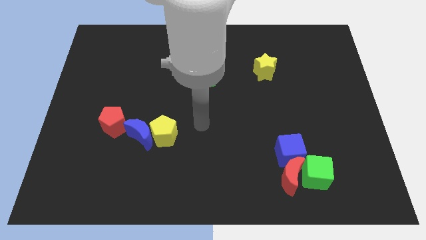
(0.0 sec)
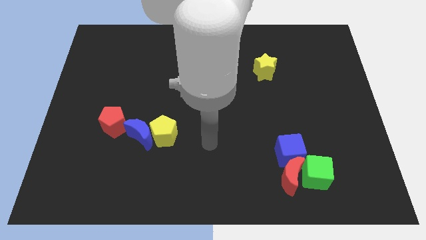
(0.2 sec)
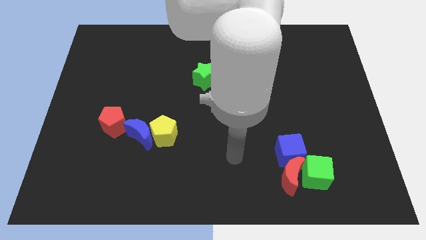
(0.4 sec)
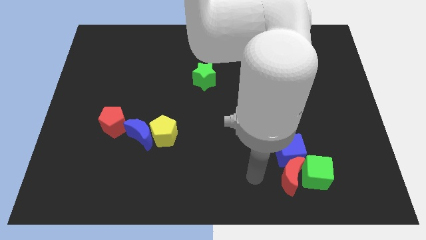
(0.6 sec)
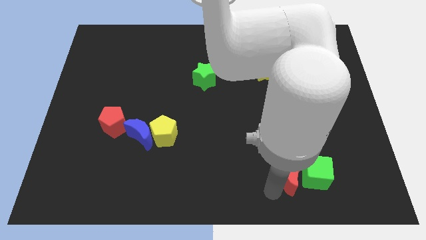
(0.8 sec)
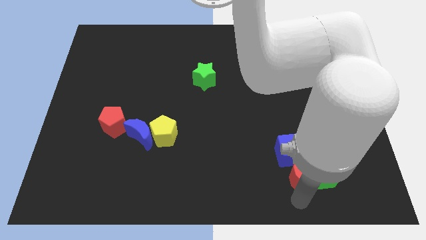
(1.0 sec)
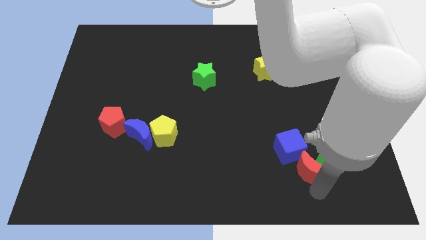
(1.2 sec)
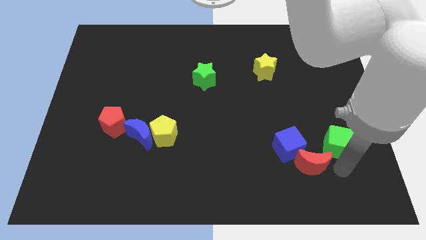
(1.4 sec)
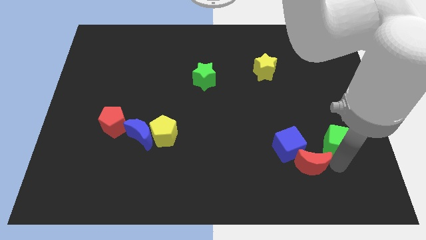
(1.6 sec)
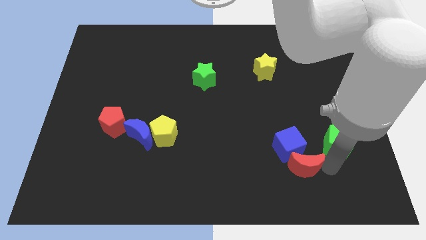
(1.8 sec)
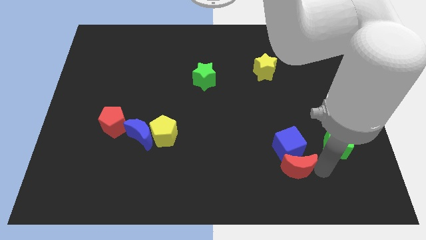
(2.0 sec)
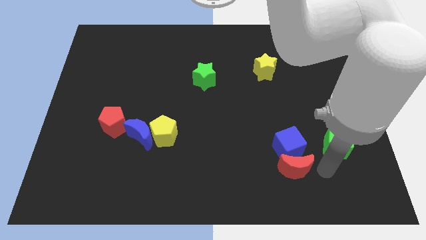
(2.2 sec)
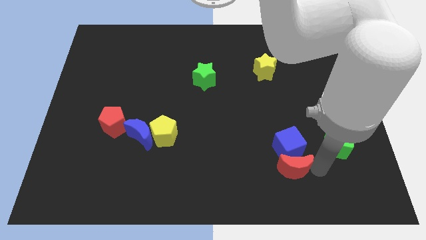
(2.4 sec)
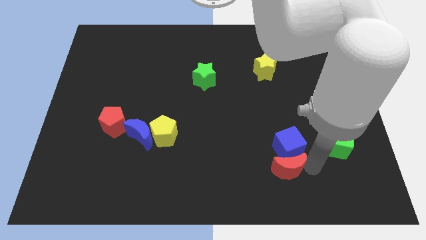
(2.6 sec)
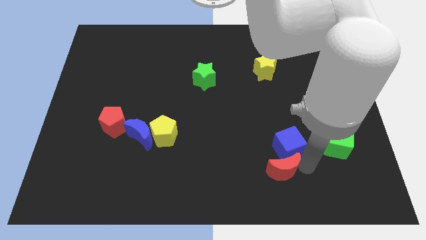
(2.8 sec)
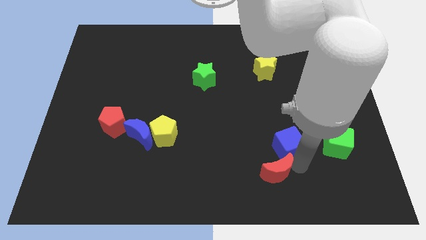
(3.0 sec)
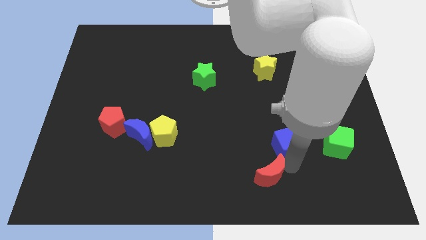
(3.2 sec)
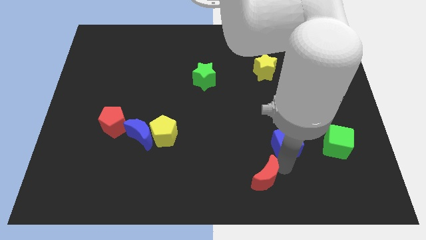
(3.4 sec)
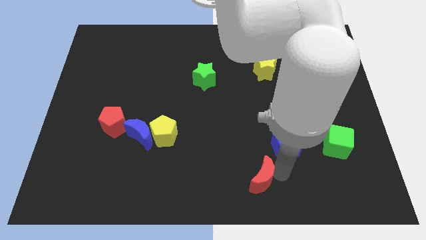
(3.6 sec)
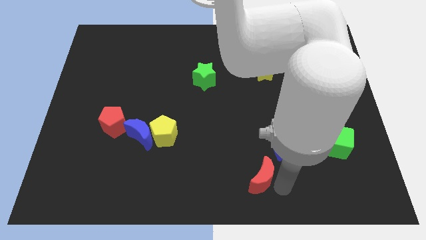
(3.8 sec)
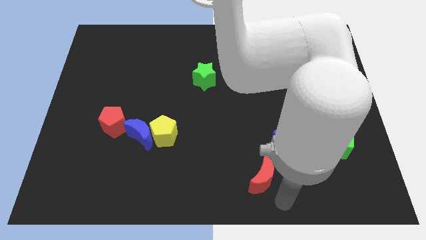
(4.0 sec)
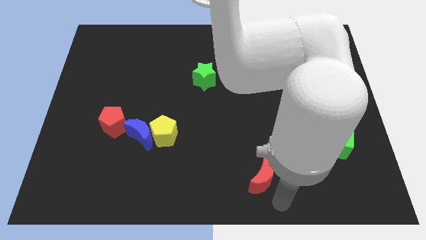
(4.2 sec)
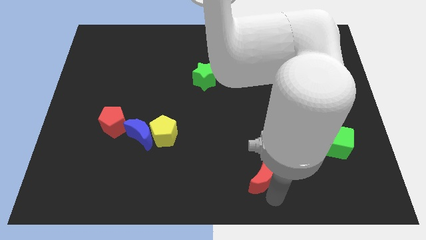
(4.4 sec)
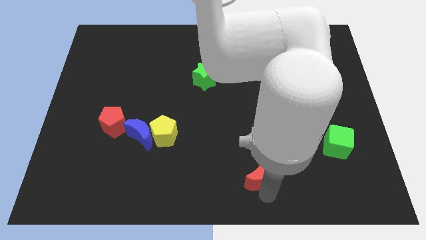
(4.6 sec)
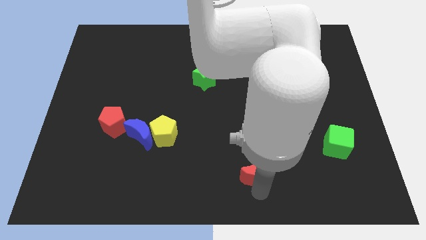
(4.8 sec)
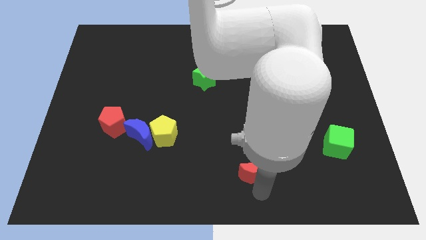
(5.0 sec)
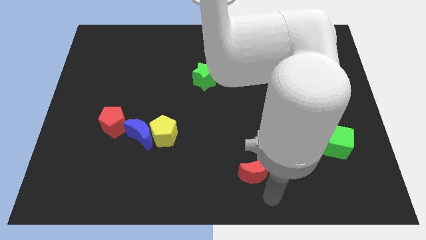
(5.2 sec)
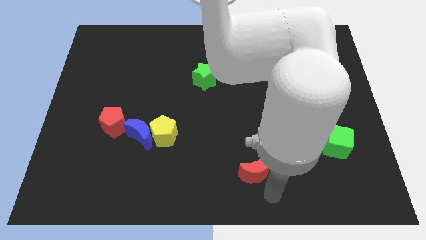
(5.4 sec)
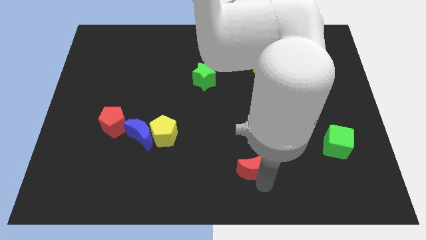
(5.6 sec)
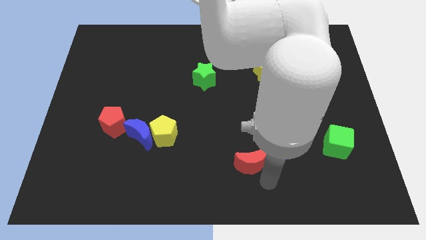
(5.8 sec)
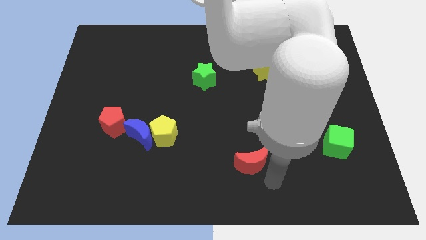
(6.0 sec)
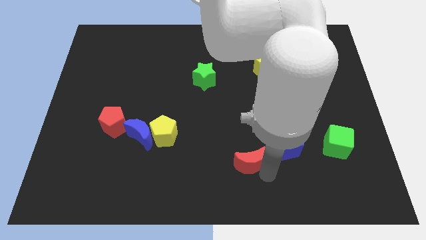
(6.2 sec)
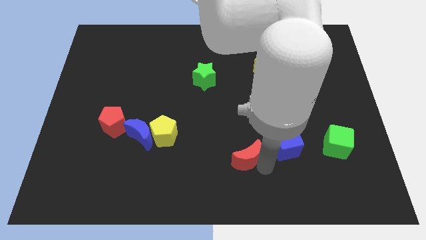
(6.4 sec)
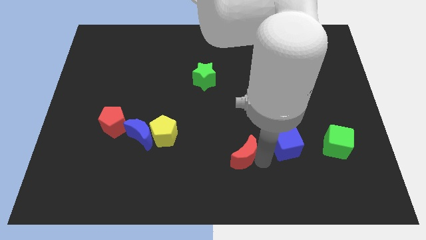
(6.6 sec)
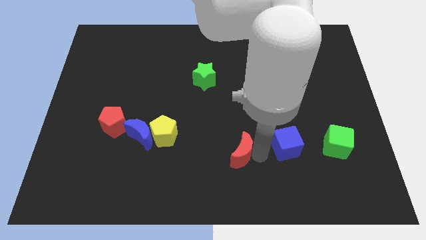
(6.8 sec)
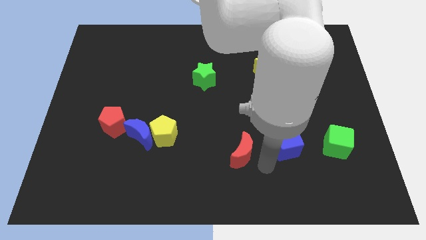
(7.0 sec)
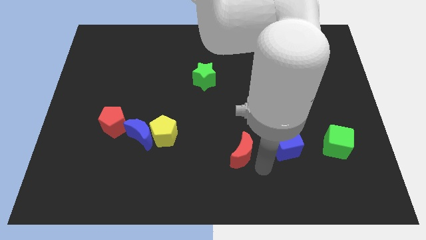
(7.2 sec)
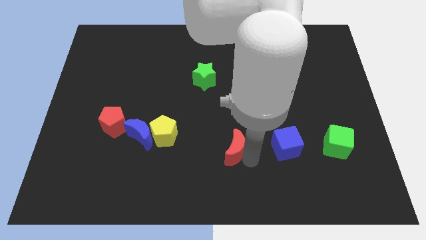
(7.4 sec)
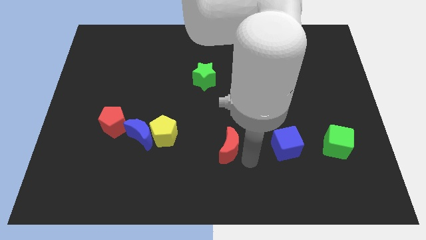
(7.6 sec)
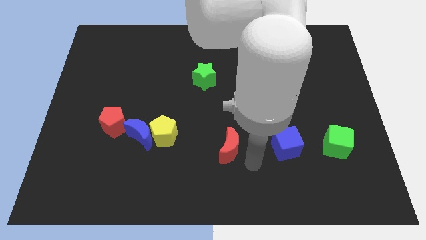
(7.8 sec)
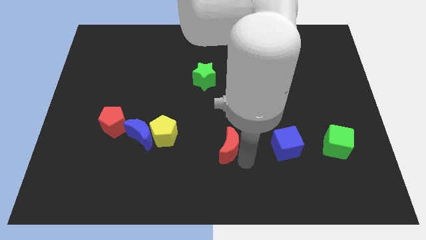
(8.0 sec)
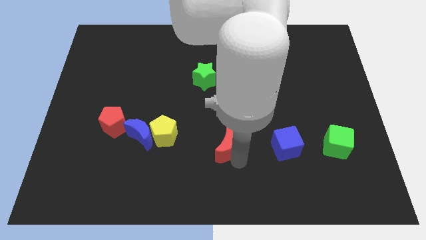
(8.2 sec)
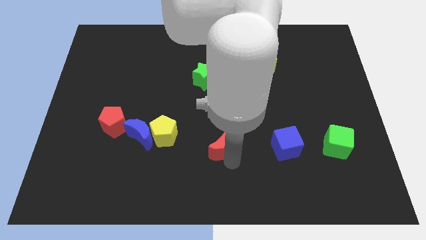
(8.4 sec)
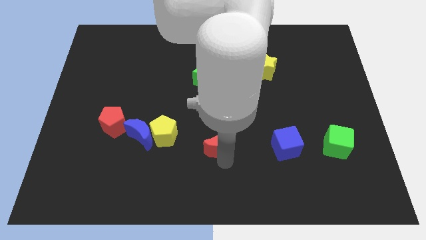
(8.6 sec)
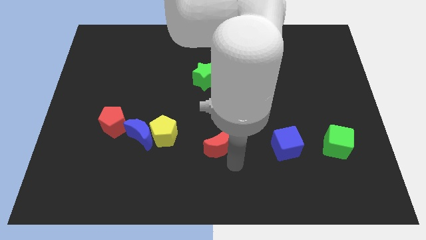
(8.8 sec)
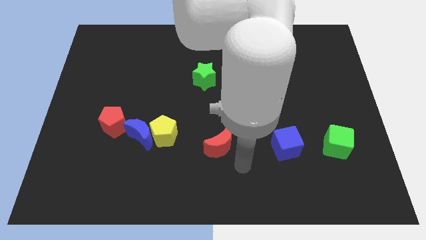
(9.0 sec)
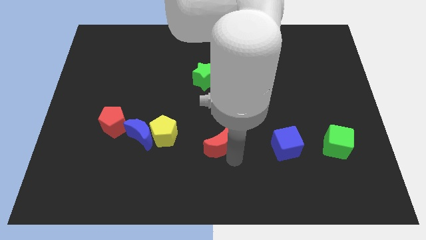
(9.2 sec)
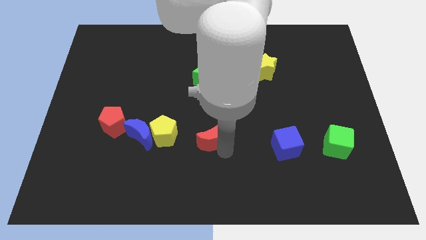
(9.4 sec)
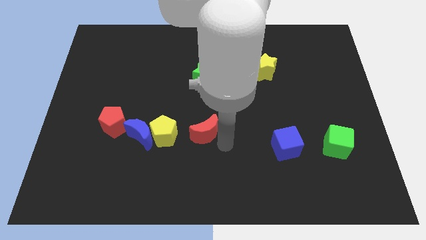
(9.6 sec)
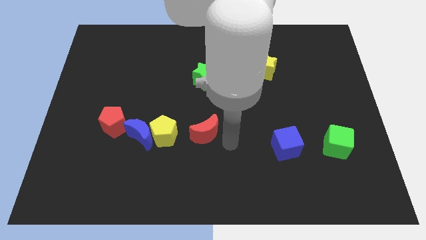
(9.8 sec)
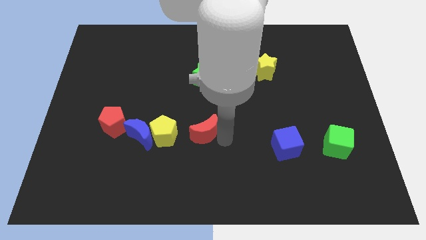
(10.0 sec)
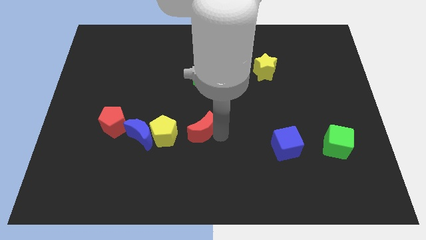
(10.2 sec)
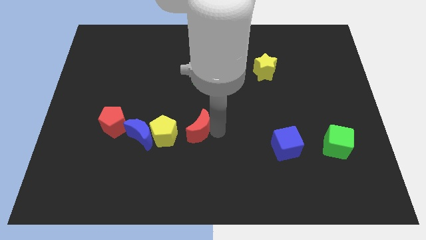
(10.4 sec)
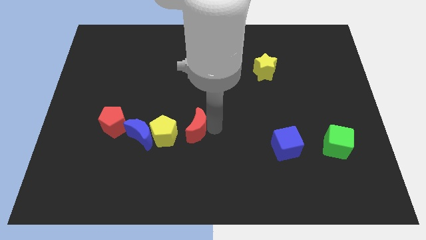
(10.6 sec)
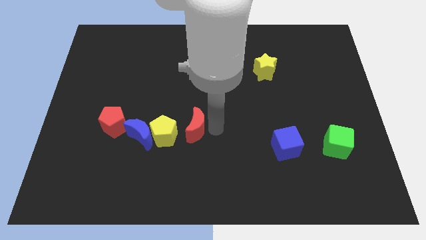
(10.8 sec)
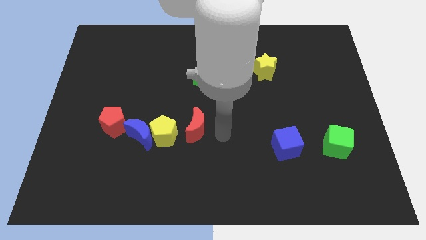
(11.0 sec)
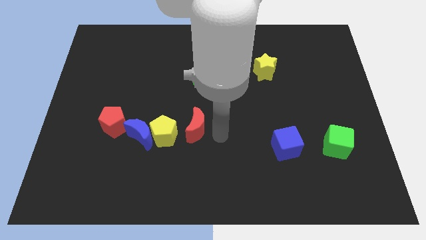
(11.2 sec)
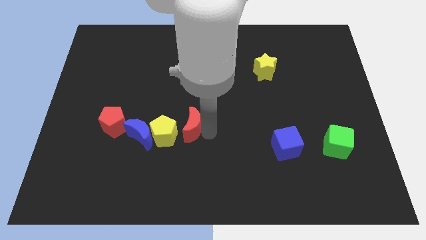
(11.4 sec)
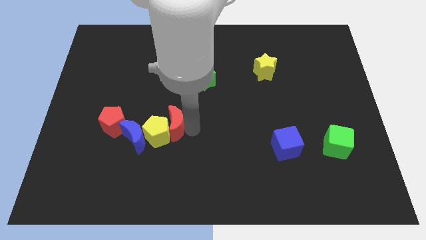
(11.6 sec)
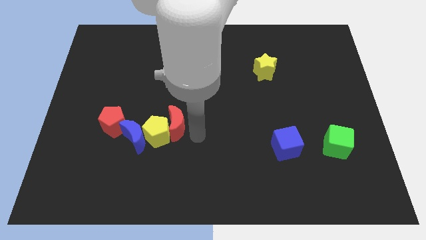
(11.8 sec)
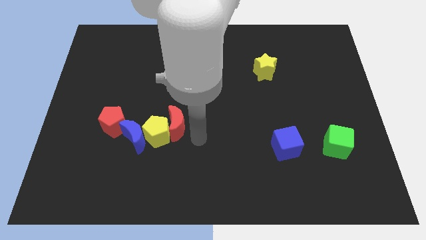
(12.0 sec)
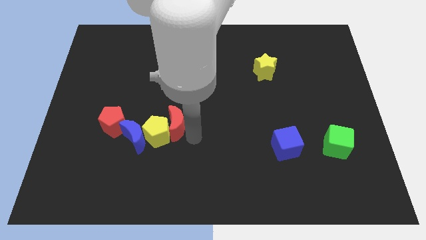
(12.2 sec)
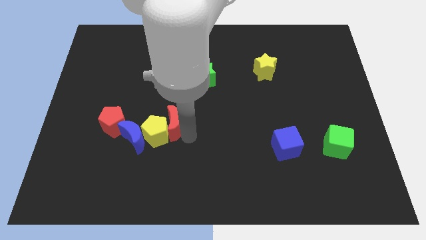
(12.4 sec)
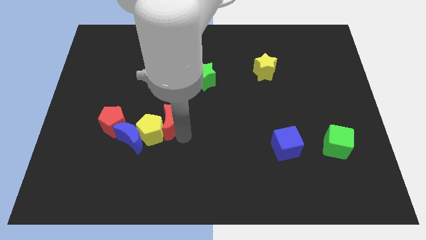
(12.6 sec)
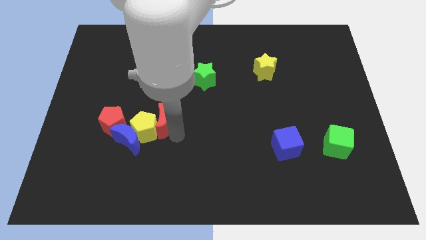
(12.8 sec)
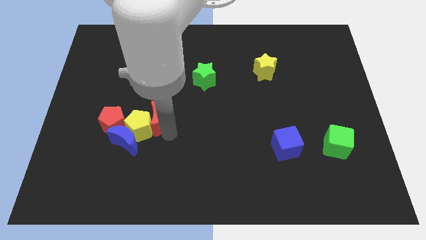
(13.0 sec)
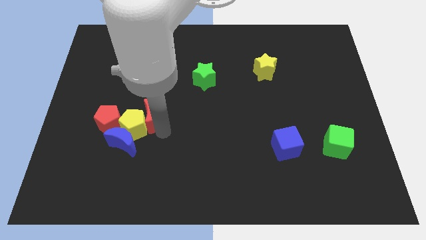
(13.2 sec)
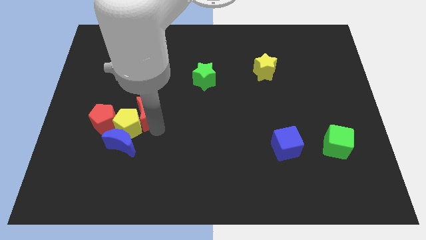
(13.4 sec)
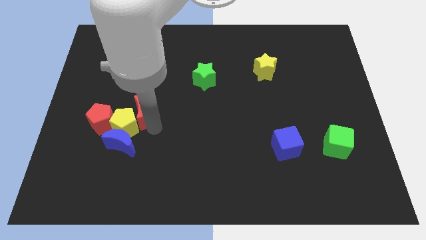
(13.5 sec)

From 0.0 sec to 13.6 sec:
slide the red moon to the top right side of the red pentagon

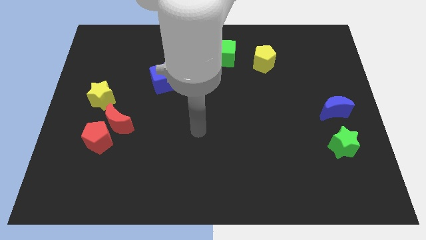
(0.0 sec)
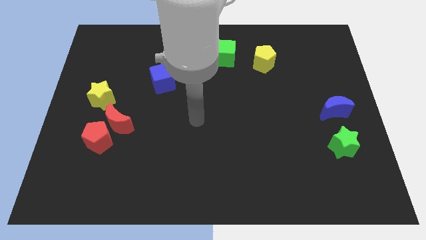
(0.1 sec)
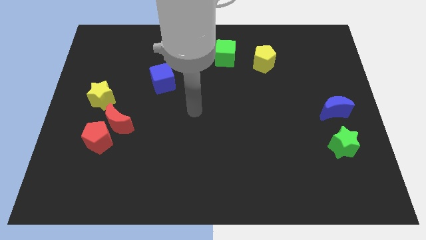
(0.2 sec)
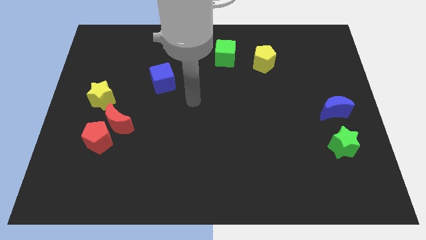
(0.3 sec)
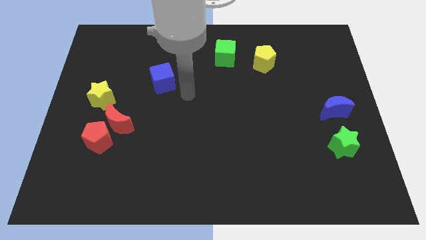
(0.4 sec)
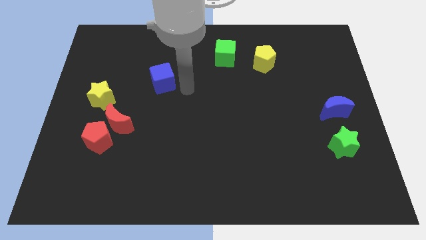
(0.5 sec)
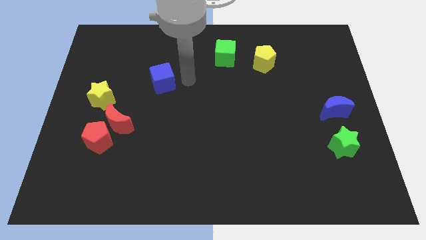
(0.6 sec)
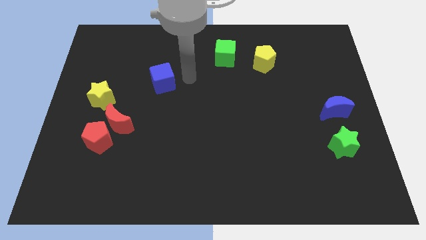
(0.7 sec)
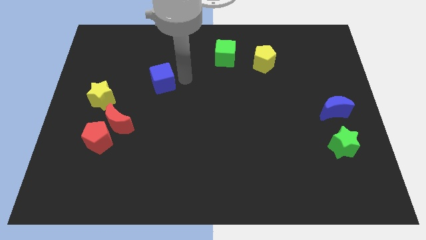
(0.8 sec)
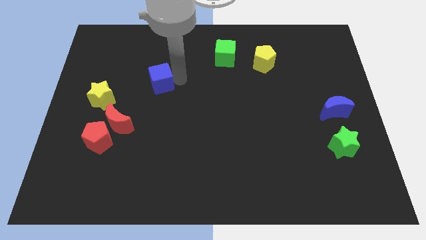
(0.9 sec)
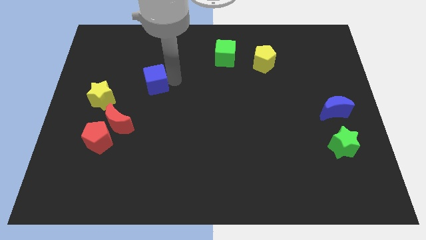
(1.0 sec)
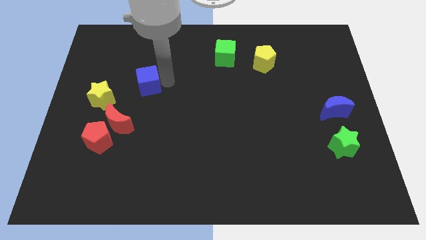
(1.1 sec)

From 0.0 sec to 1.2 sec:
move the blue cube to the top right side of the yellow star
